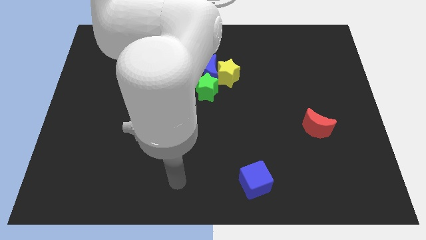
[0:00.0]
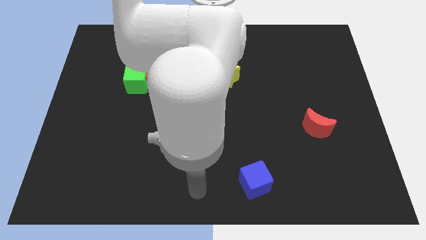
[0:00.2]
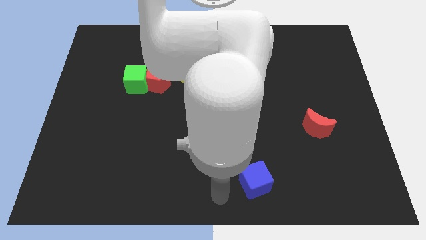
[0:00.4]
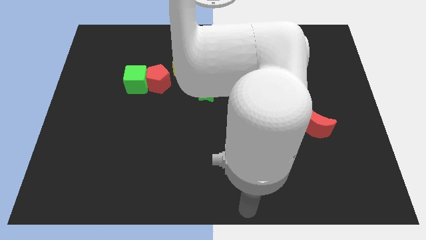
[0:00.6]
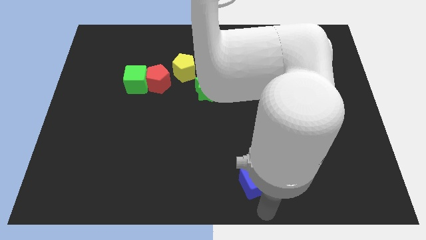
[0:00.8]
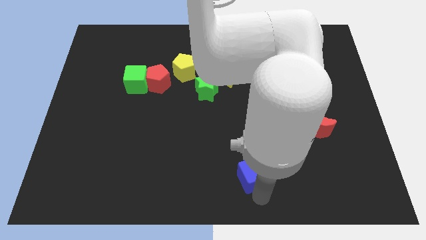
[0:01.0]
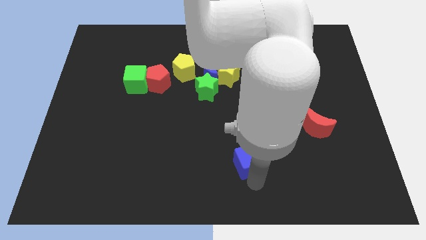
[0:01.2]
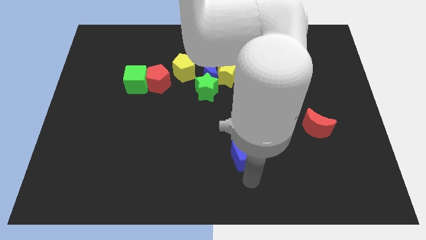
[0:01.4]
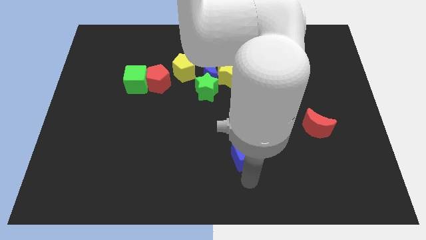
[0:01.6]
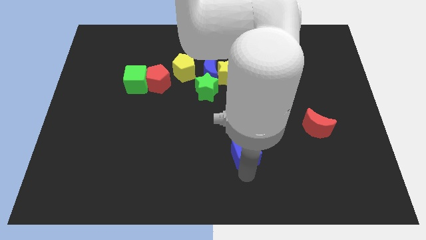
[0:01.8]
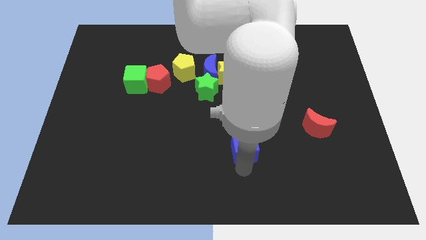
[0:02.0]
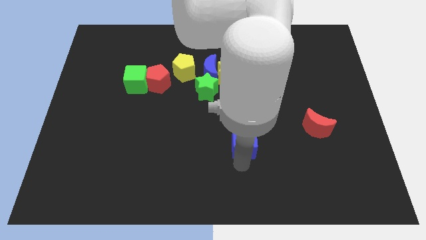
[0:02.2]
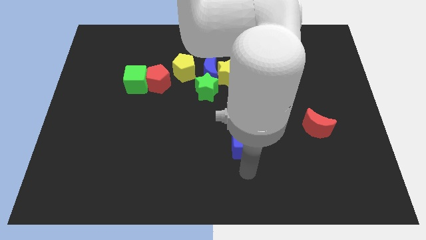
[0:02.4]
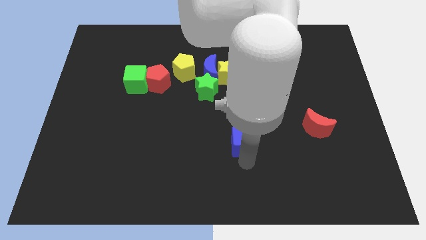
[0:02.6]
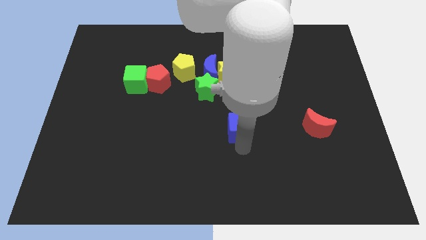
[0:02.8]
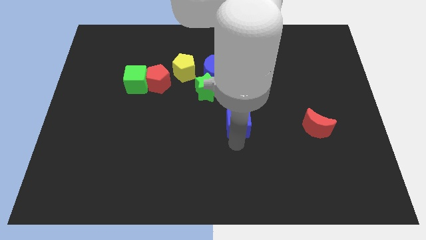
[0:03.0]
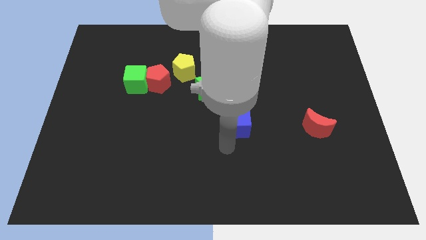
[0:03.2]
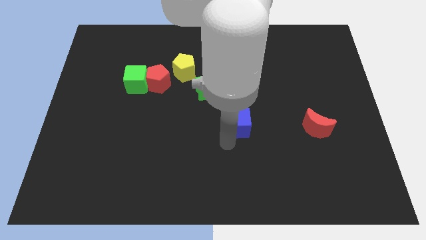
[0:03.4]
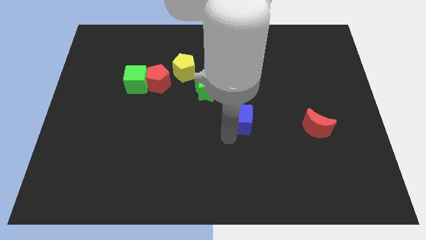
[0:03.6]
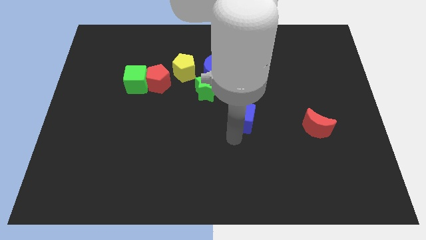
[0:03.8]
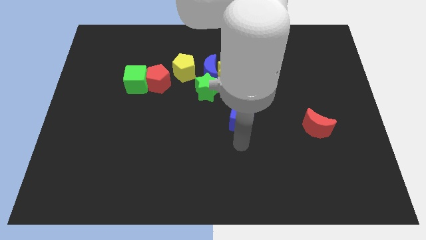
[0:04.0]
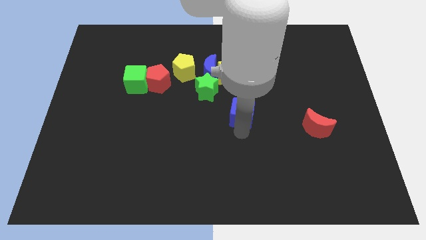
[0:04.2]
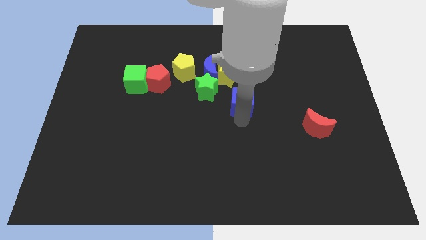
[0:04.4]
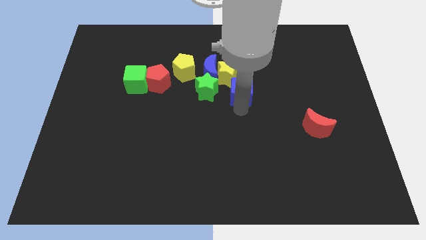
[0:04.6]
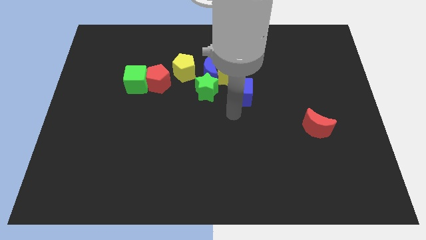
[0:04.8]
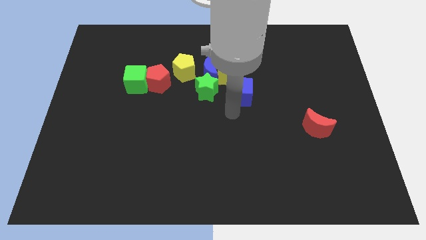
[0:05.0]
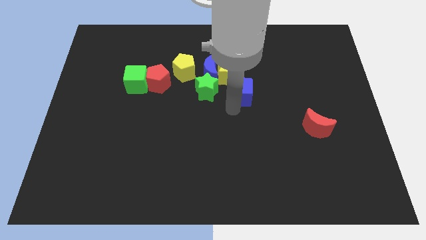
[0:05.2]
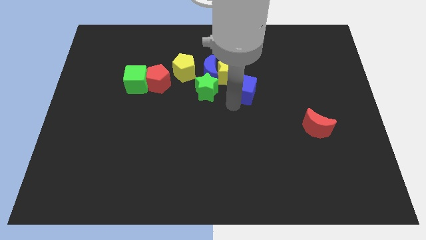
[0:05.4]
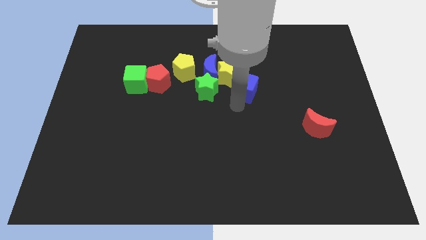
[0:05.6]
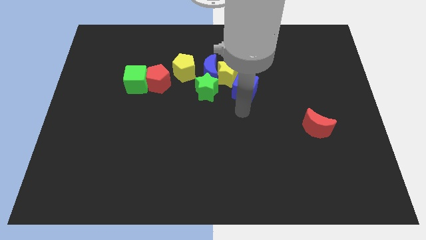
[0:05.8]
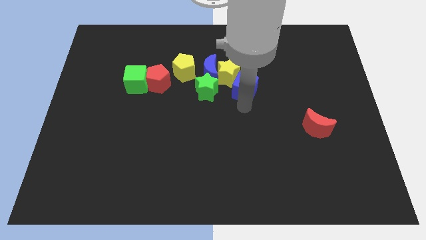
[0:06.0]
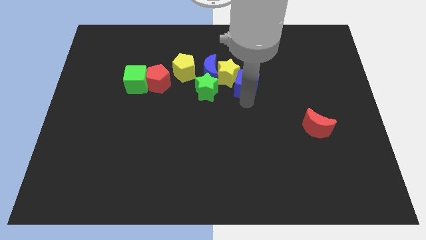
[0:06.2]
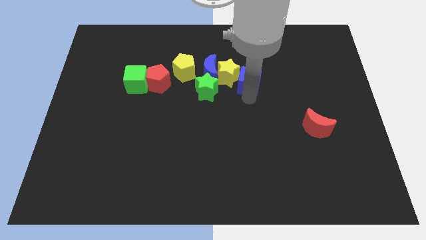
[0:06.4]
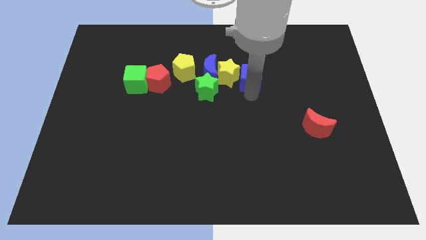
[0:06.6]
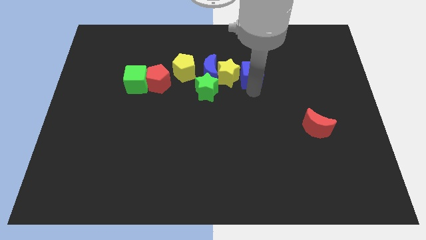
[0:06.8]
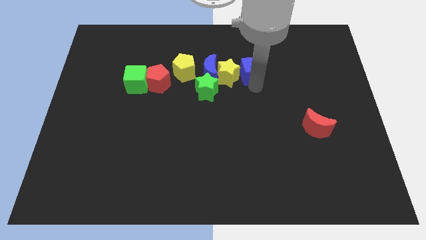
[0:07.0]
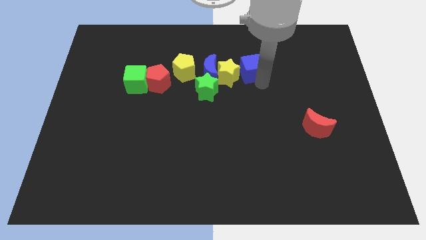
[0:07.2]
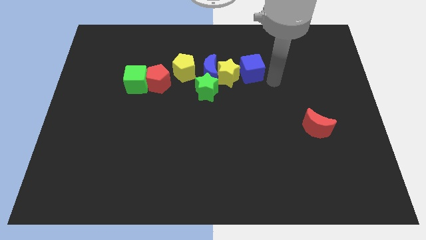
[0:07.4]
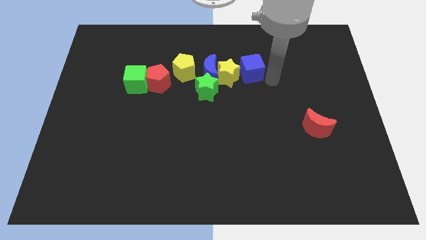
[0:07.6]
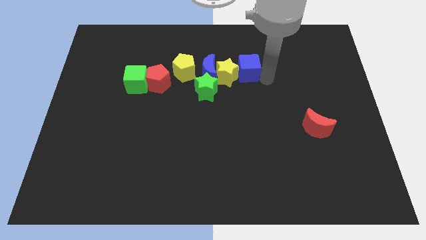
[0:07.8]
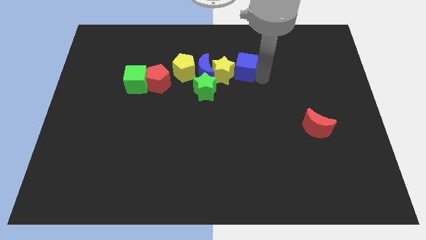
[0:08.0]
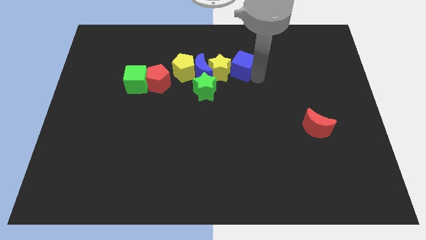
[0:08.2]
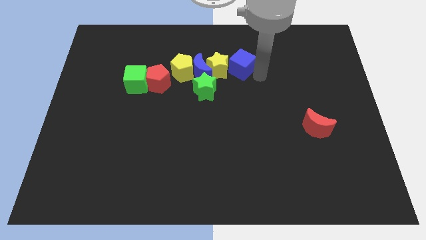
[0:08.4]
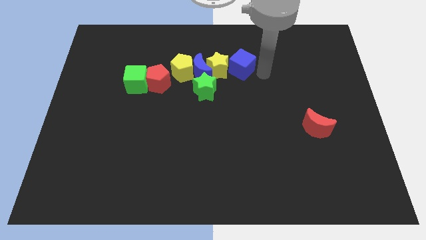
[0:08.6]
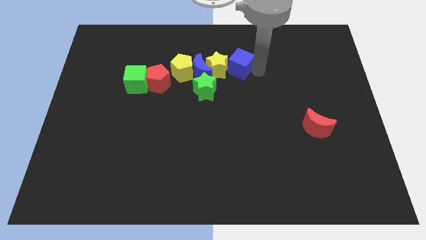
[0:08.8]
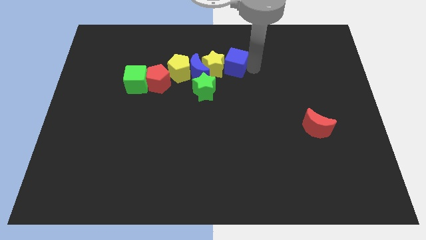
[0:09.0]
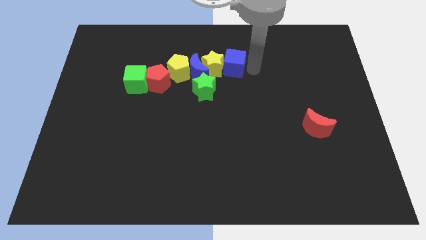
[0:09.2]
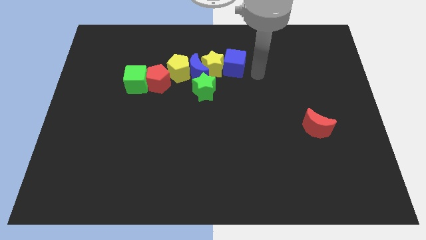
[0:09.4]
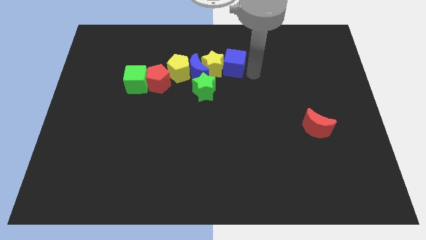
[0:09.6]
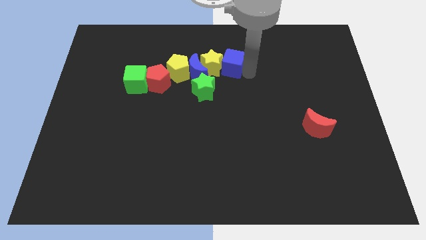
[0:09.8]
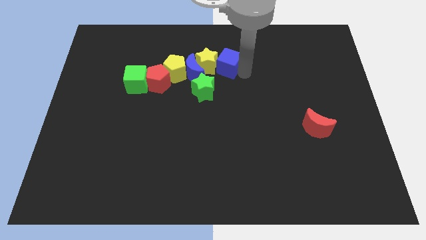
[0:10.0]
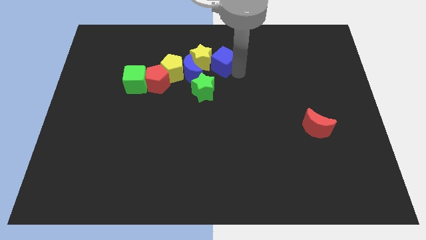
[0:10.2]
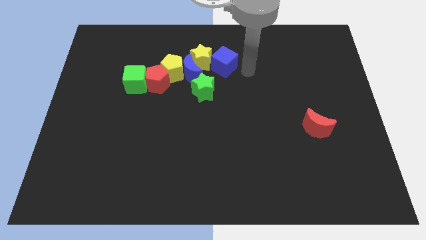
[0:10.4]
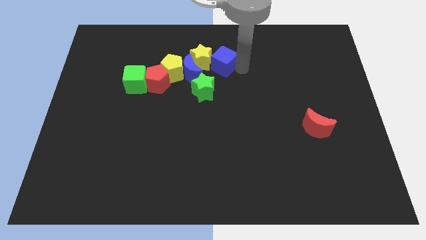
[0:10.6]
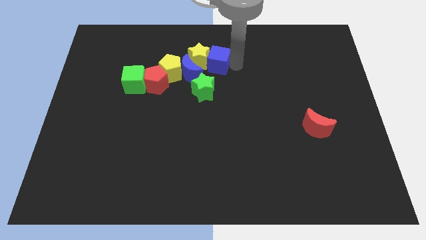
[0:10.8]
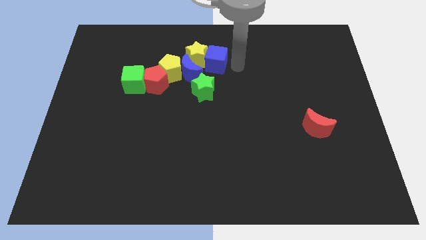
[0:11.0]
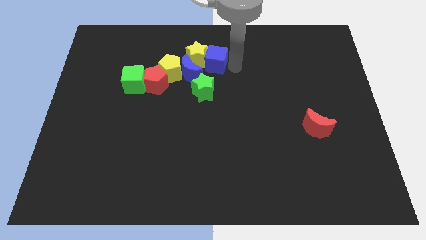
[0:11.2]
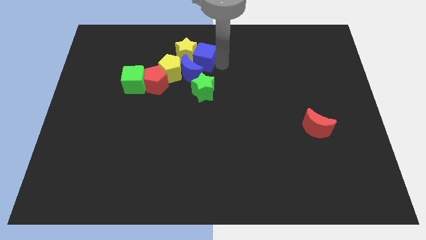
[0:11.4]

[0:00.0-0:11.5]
slide the blue cube to the top right of the yellow pentagon

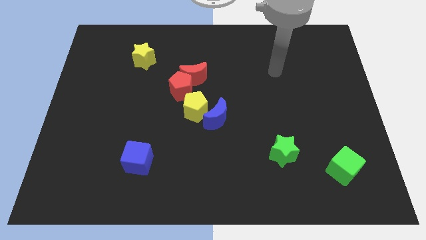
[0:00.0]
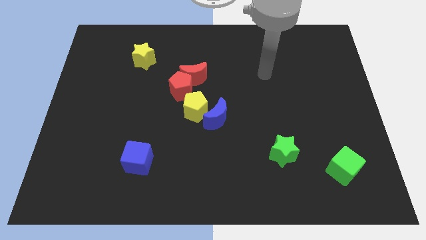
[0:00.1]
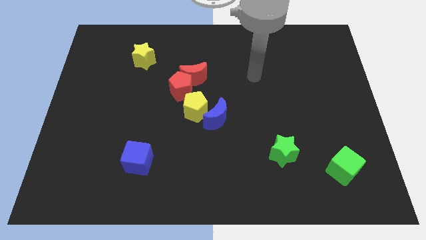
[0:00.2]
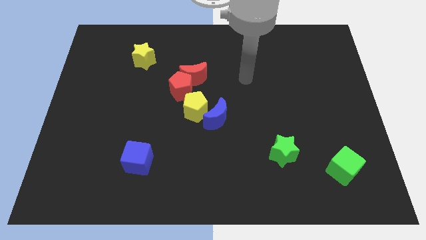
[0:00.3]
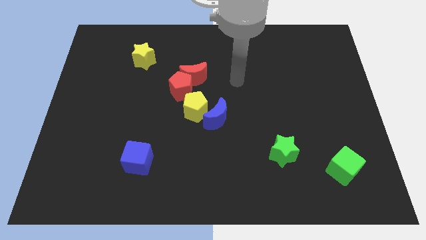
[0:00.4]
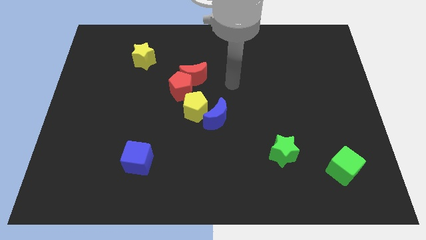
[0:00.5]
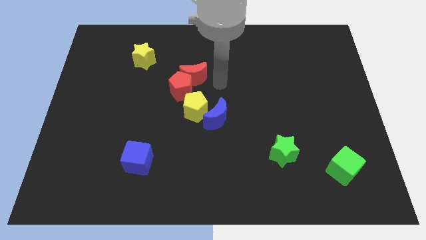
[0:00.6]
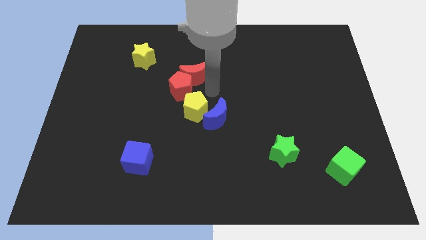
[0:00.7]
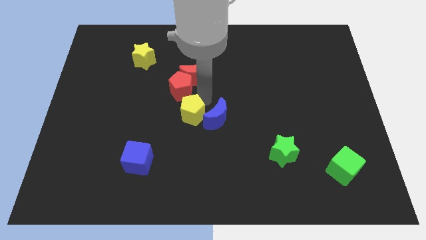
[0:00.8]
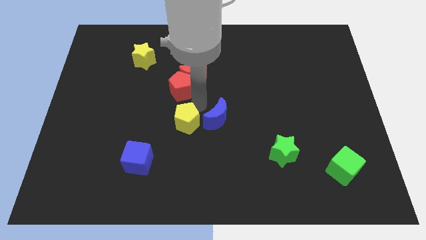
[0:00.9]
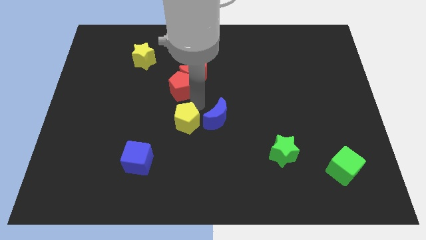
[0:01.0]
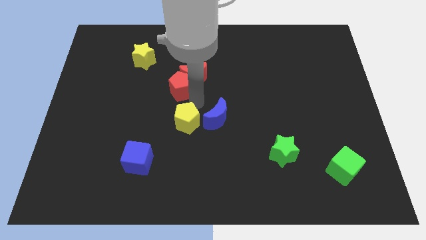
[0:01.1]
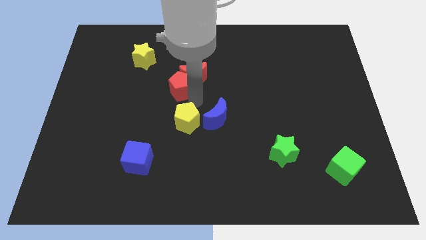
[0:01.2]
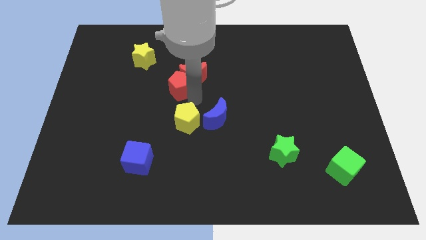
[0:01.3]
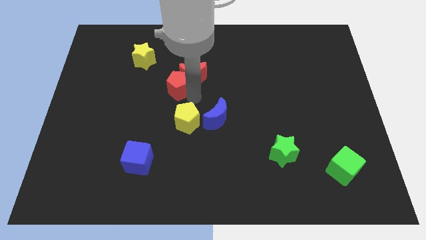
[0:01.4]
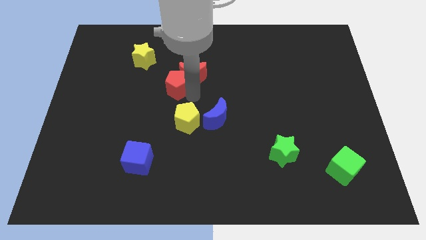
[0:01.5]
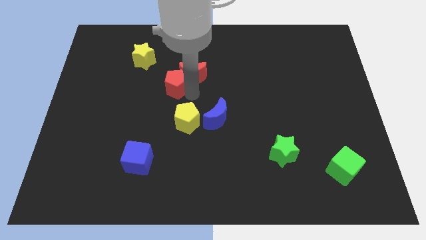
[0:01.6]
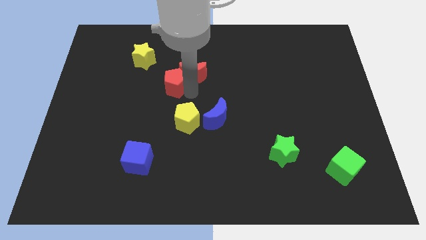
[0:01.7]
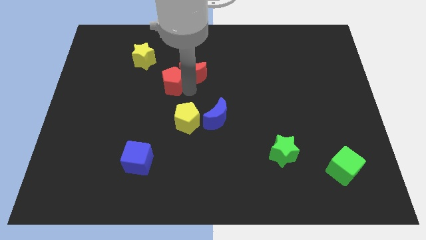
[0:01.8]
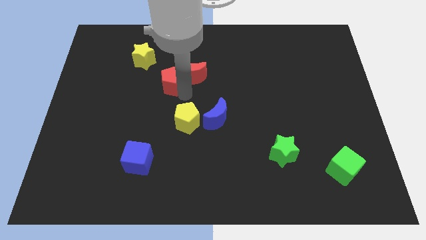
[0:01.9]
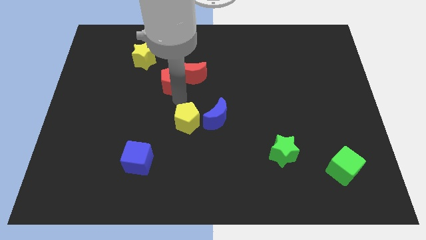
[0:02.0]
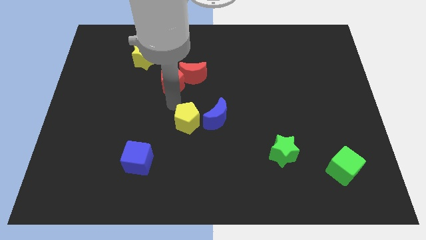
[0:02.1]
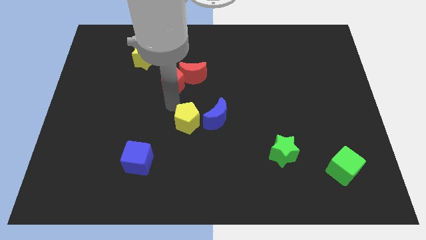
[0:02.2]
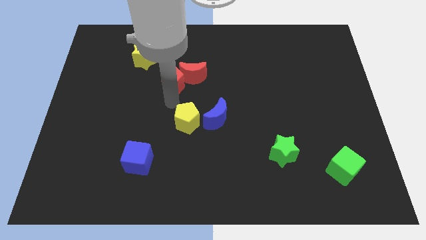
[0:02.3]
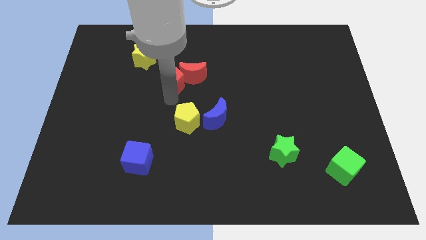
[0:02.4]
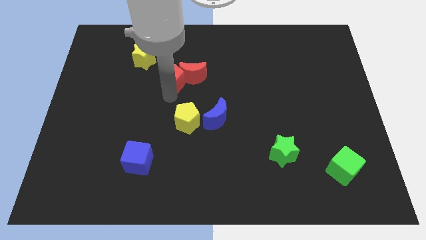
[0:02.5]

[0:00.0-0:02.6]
slide the red pentagon to the top left of the red moon
